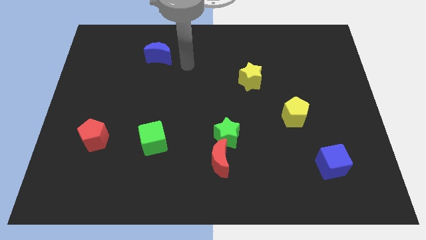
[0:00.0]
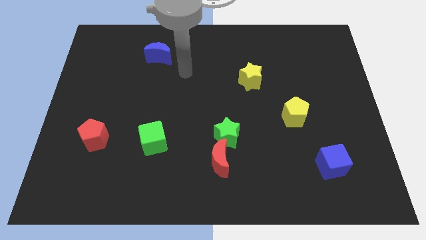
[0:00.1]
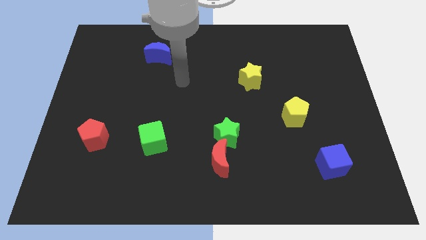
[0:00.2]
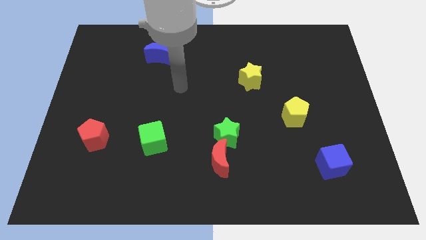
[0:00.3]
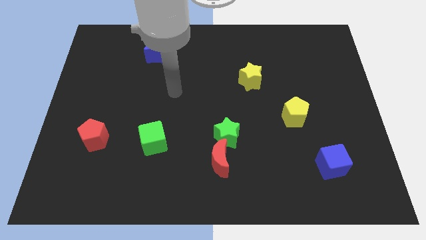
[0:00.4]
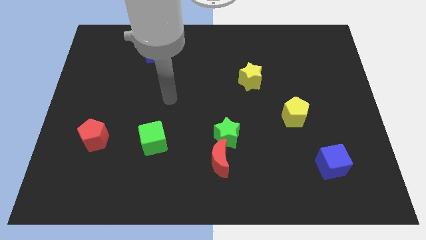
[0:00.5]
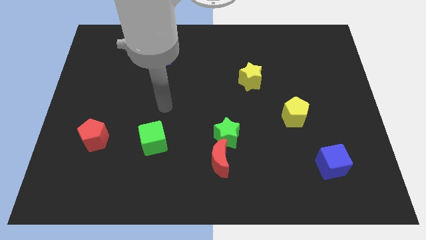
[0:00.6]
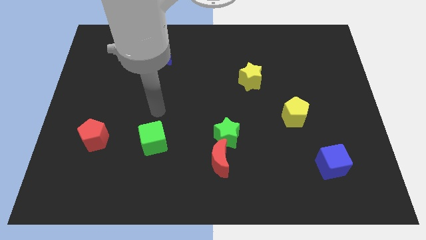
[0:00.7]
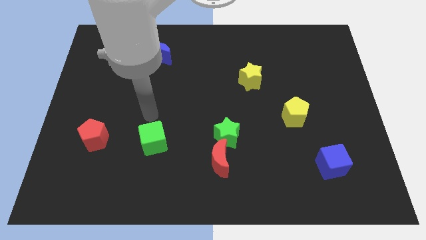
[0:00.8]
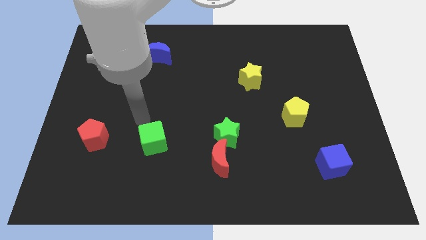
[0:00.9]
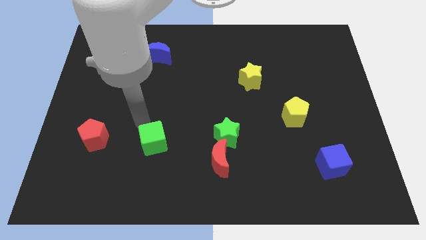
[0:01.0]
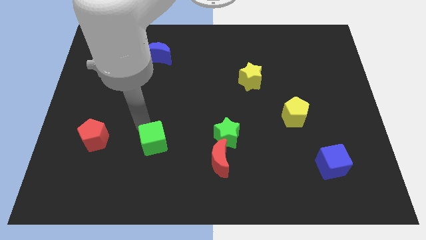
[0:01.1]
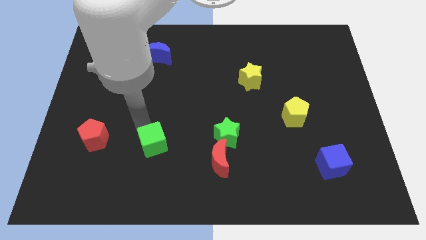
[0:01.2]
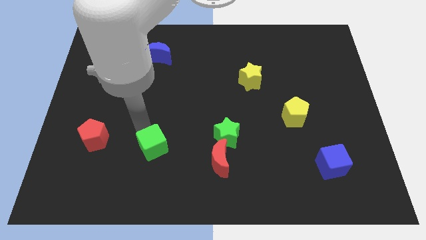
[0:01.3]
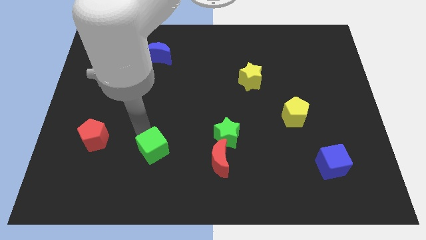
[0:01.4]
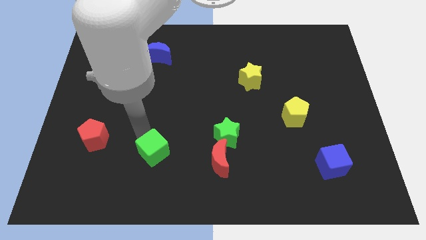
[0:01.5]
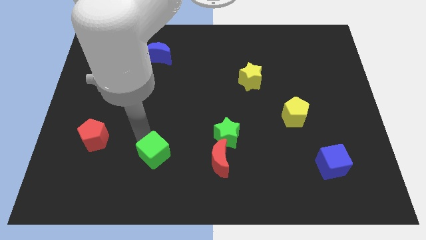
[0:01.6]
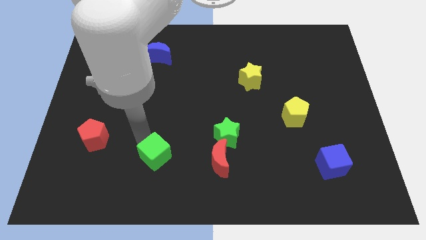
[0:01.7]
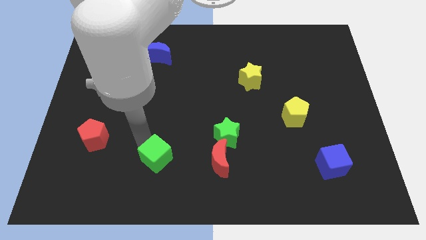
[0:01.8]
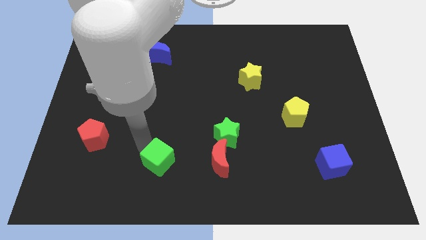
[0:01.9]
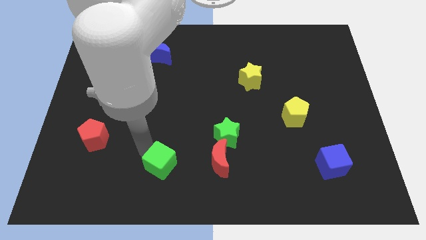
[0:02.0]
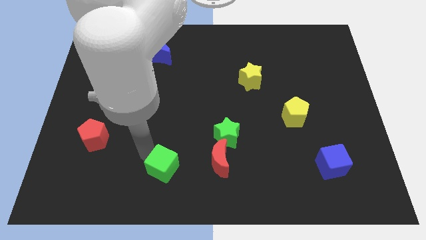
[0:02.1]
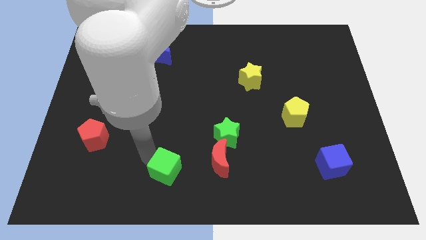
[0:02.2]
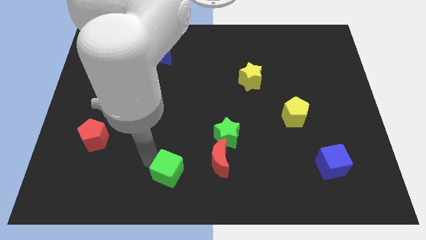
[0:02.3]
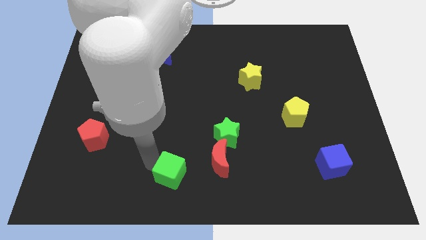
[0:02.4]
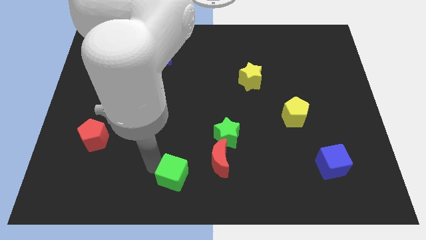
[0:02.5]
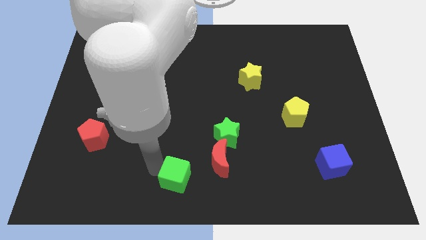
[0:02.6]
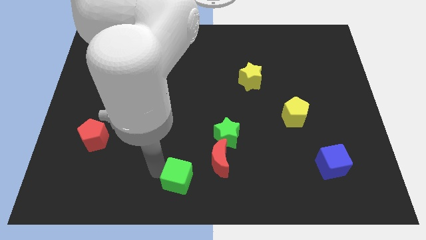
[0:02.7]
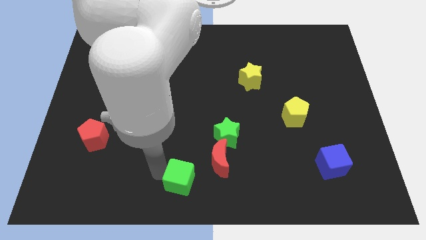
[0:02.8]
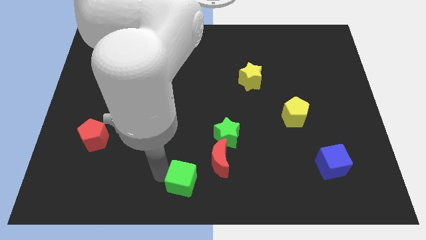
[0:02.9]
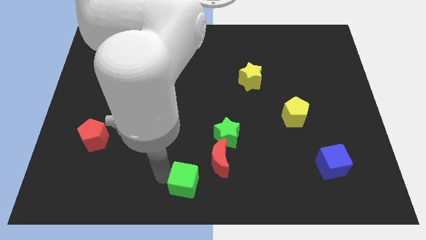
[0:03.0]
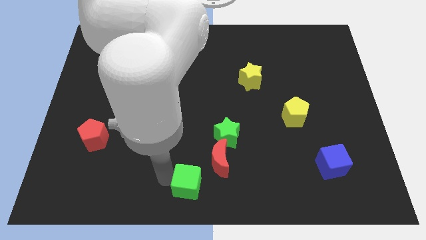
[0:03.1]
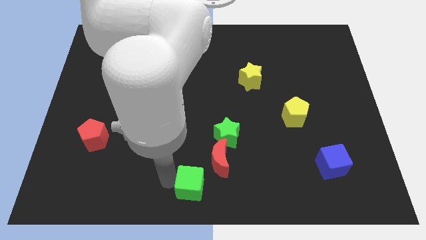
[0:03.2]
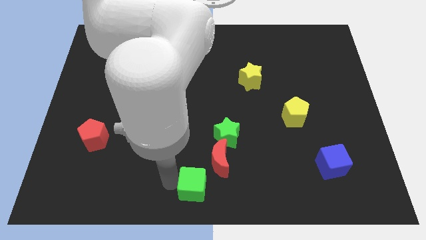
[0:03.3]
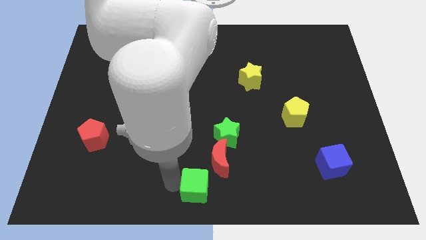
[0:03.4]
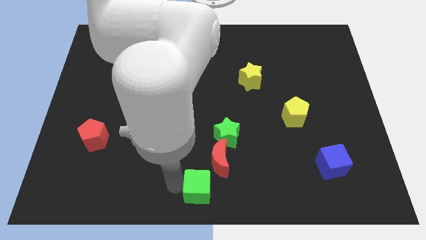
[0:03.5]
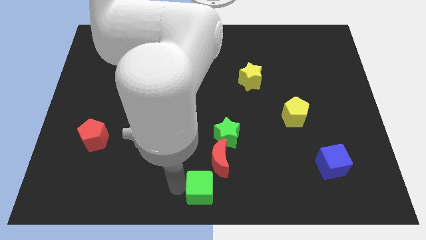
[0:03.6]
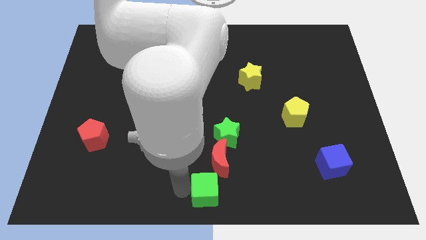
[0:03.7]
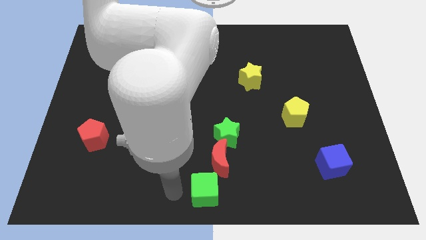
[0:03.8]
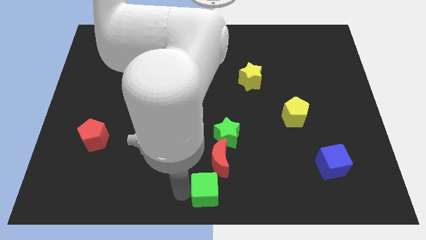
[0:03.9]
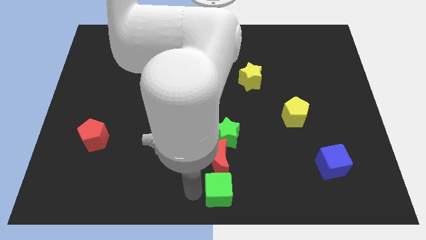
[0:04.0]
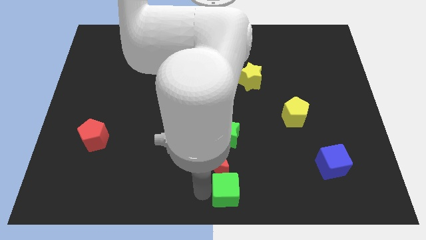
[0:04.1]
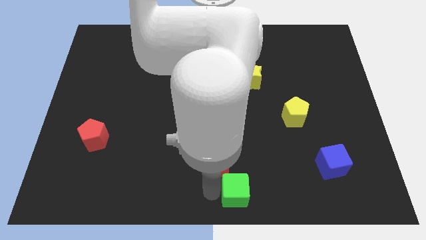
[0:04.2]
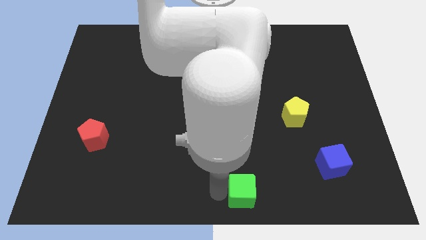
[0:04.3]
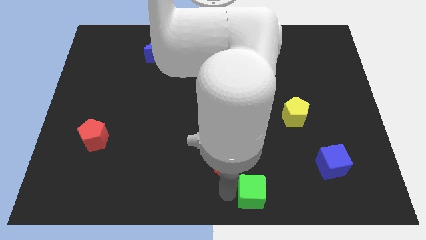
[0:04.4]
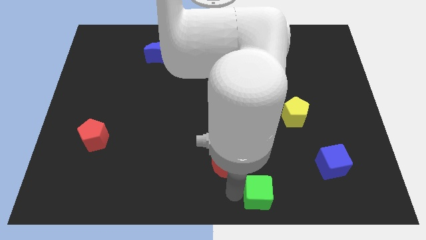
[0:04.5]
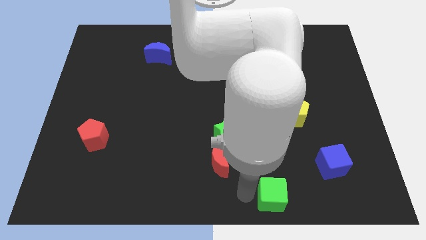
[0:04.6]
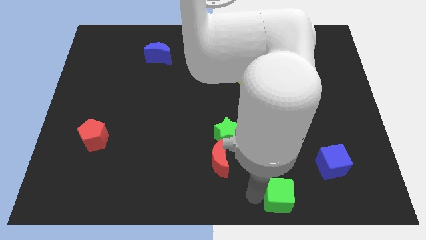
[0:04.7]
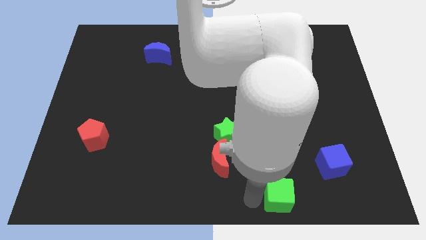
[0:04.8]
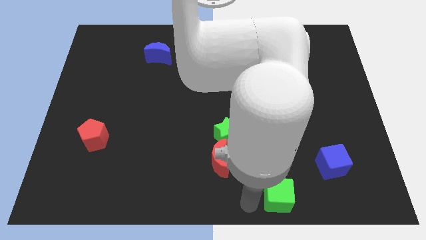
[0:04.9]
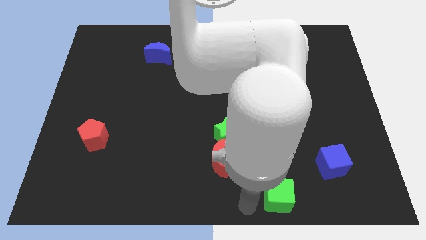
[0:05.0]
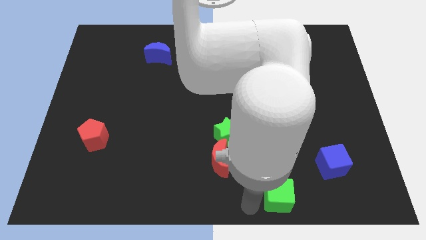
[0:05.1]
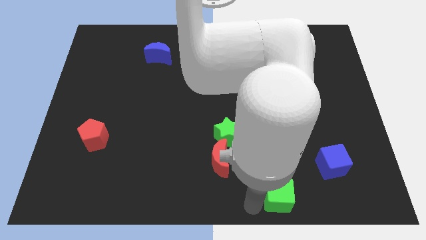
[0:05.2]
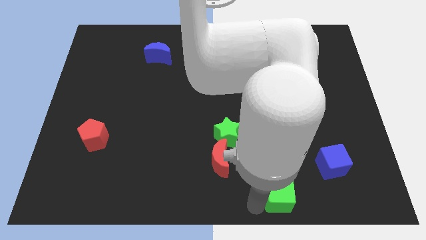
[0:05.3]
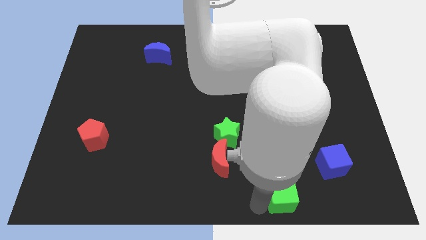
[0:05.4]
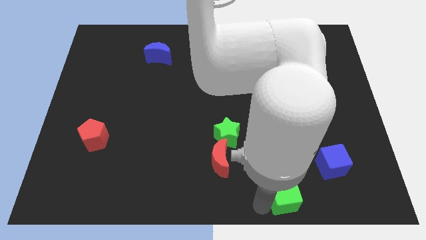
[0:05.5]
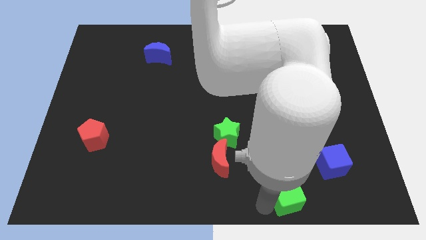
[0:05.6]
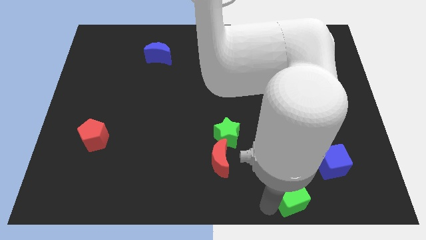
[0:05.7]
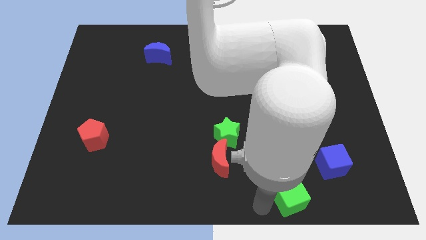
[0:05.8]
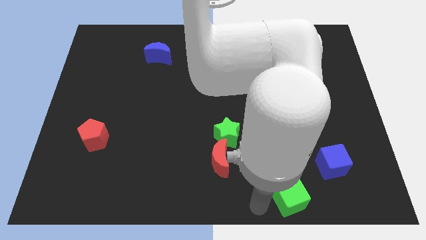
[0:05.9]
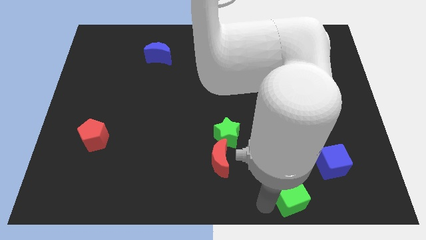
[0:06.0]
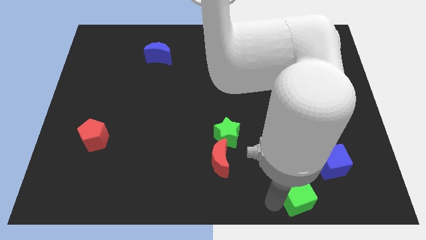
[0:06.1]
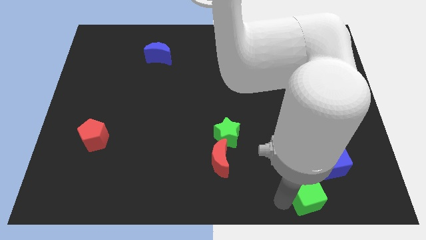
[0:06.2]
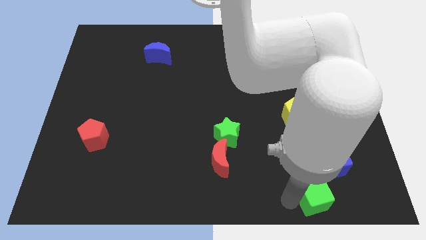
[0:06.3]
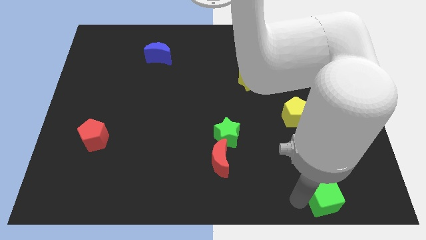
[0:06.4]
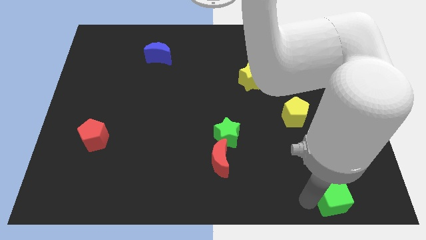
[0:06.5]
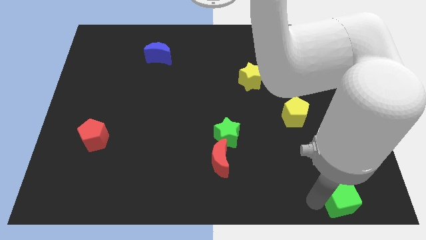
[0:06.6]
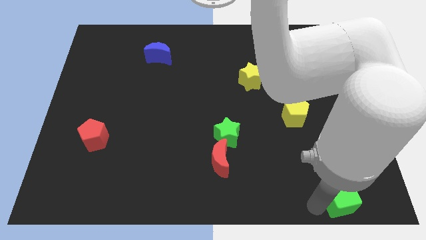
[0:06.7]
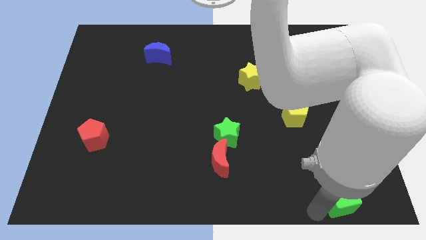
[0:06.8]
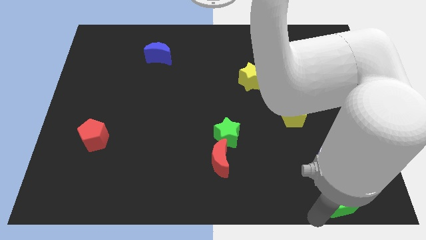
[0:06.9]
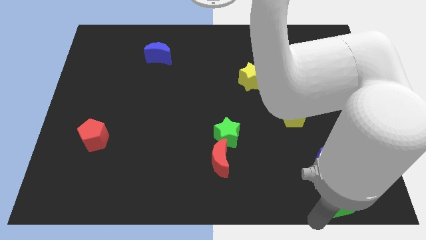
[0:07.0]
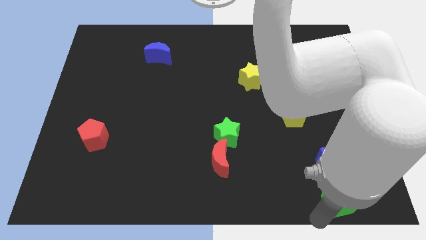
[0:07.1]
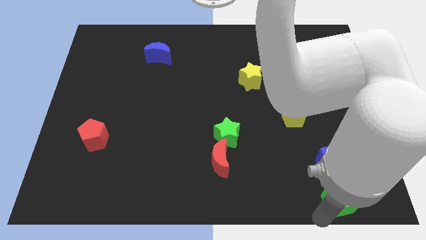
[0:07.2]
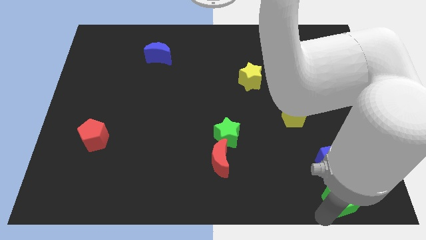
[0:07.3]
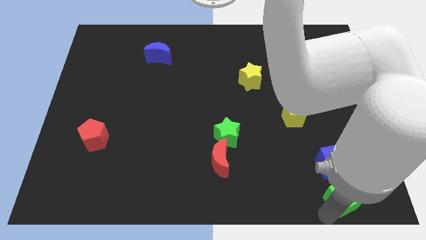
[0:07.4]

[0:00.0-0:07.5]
put the green cube to the bottom right of the board
